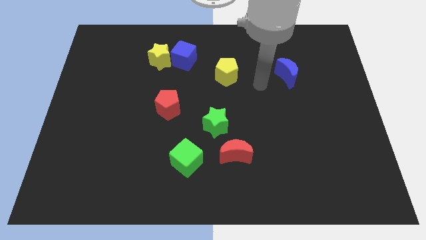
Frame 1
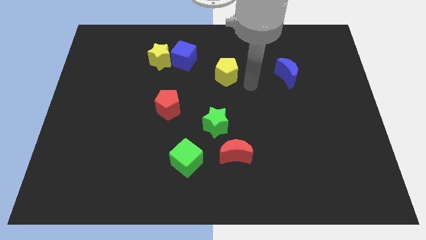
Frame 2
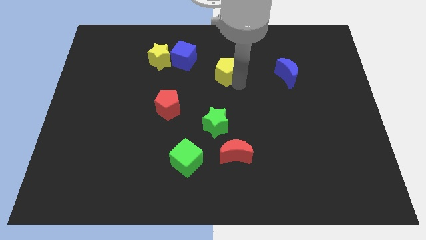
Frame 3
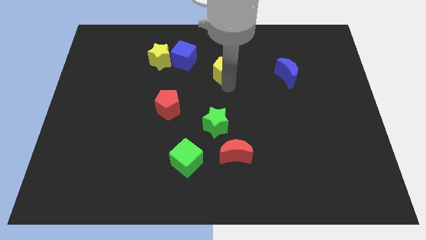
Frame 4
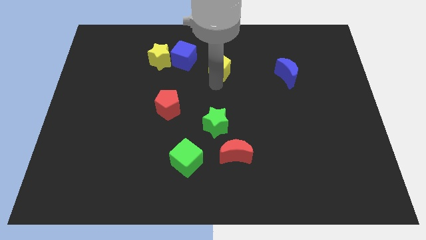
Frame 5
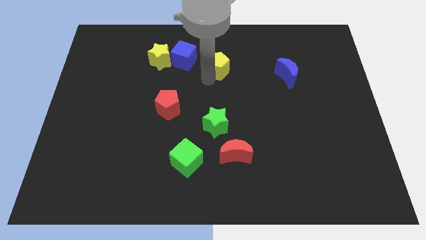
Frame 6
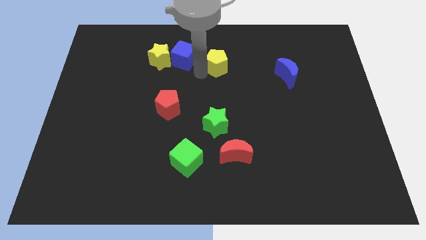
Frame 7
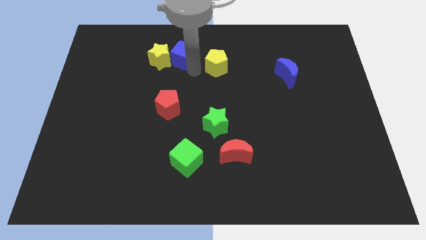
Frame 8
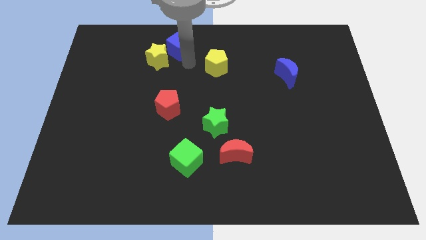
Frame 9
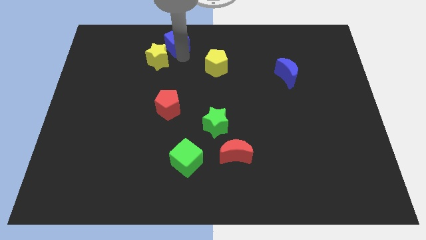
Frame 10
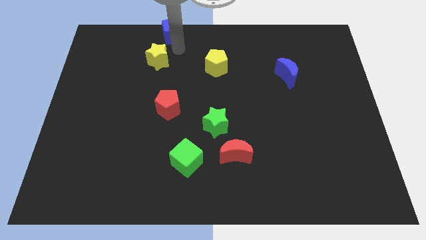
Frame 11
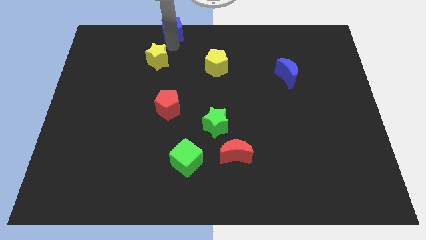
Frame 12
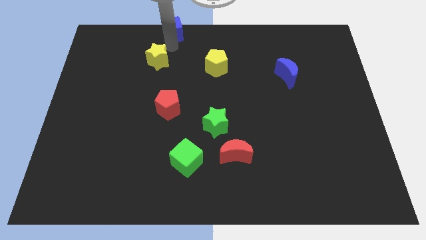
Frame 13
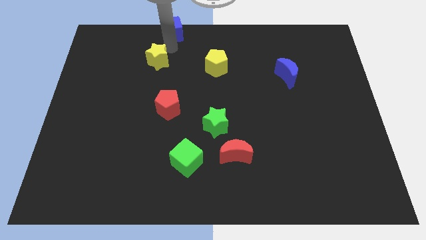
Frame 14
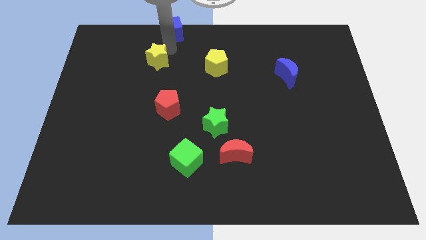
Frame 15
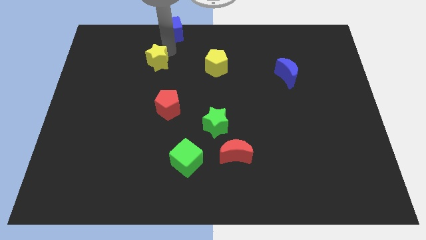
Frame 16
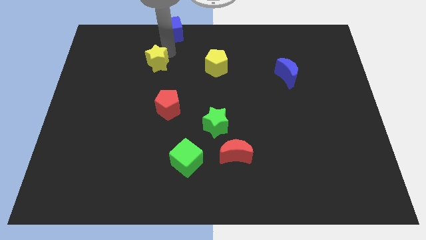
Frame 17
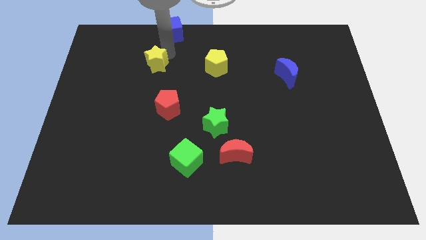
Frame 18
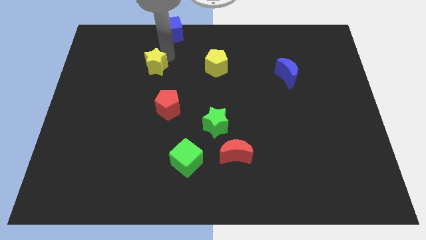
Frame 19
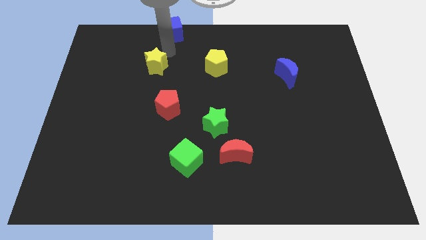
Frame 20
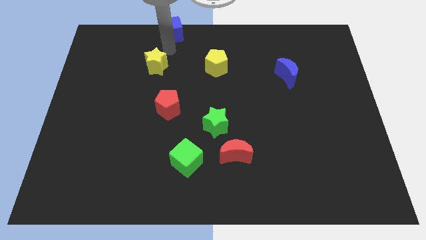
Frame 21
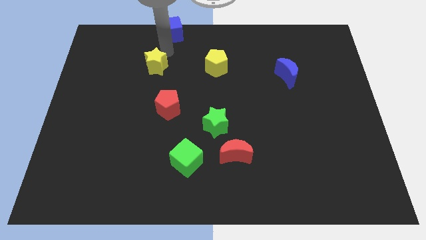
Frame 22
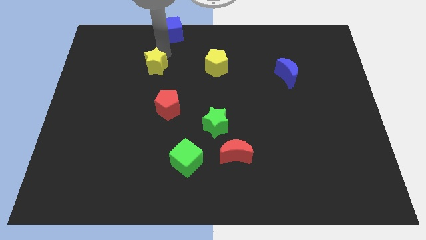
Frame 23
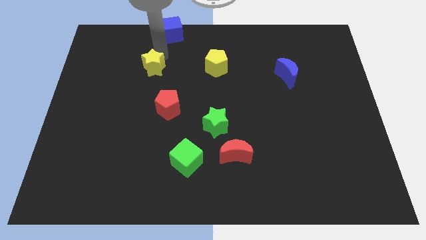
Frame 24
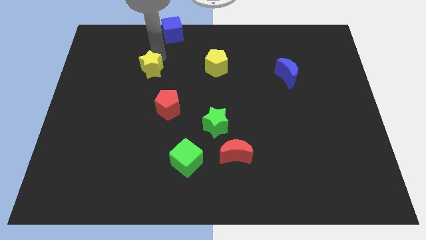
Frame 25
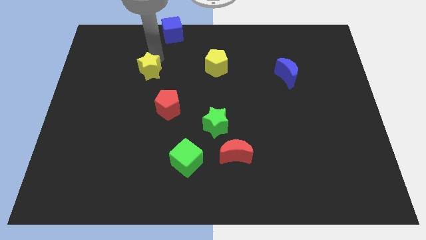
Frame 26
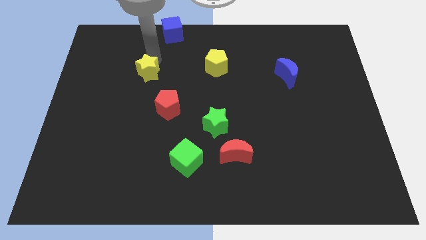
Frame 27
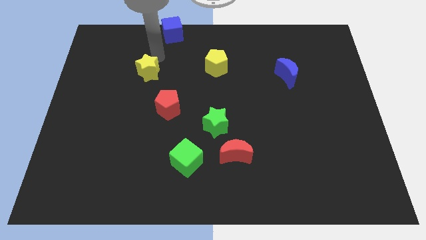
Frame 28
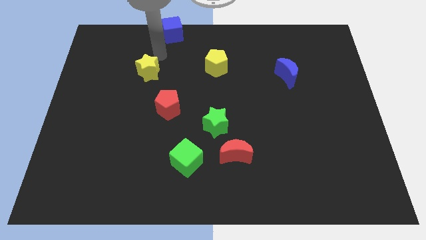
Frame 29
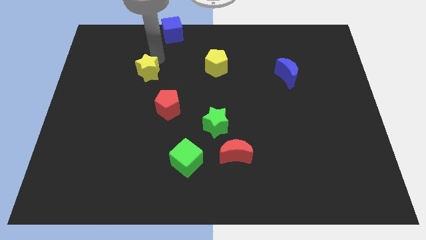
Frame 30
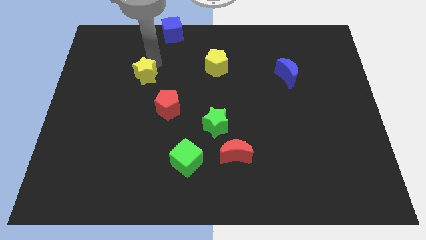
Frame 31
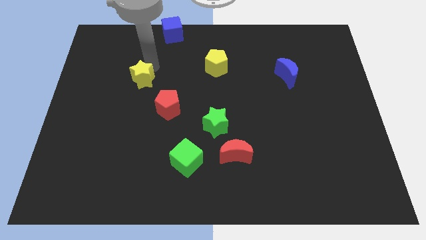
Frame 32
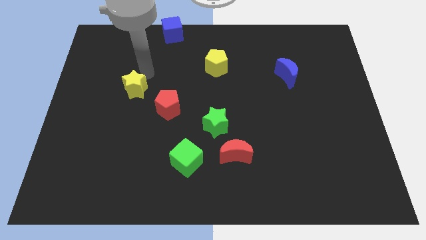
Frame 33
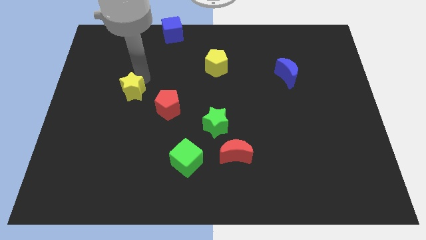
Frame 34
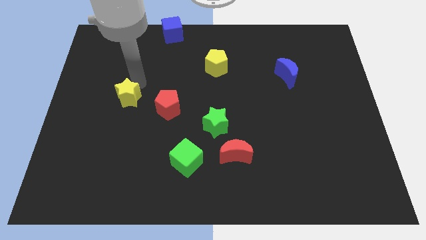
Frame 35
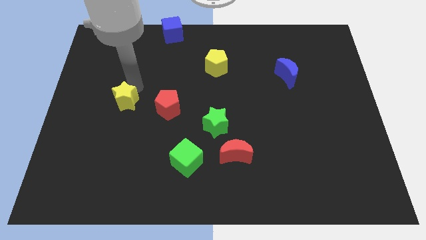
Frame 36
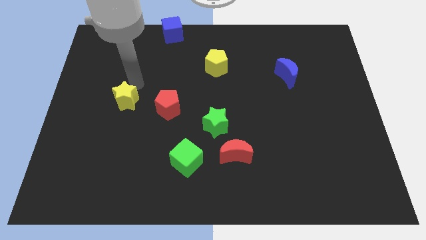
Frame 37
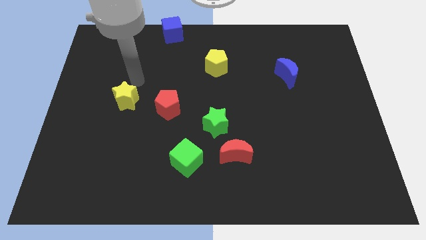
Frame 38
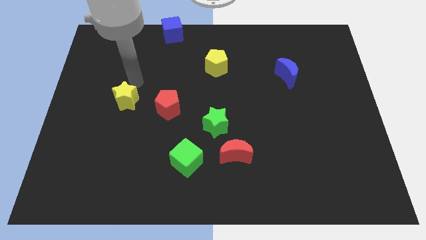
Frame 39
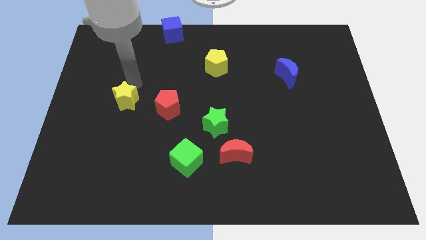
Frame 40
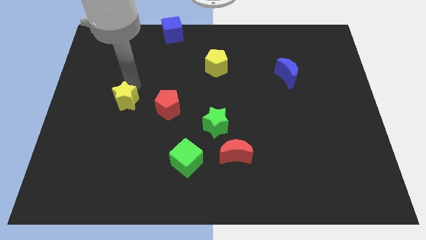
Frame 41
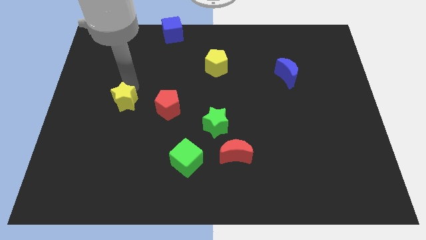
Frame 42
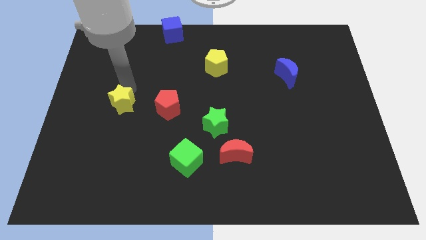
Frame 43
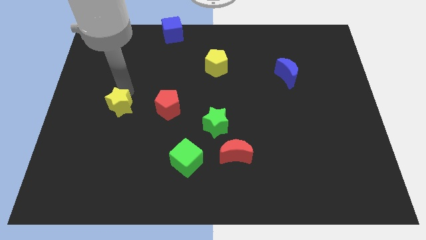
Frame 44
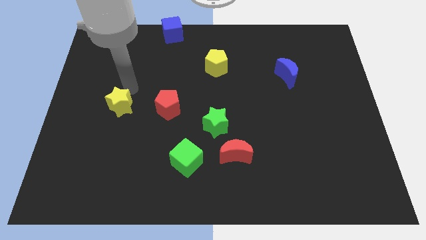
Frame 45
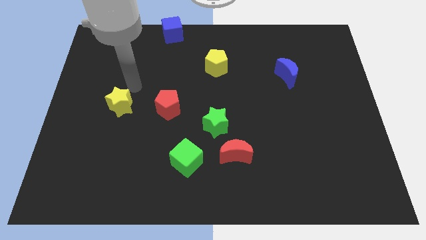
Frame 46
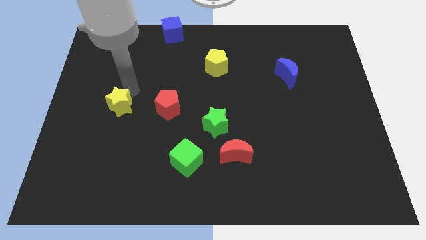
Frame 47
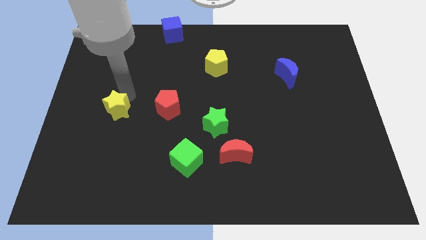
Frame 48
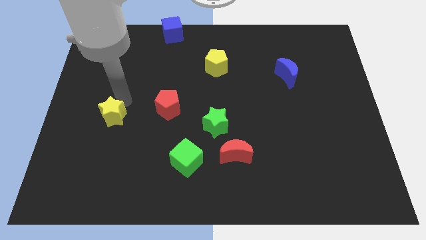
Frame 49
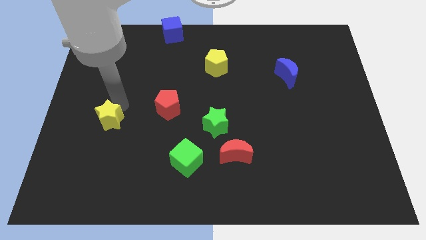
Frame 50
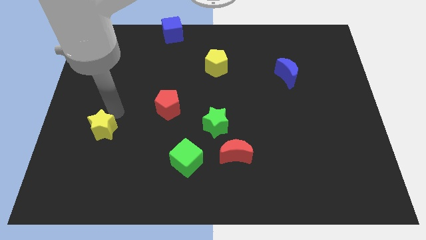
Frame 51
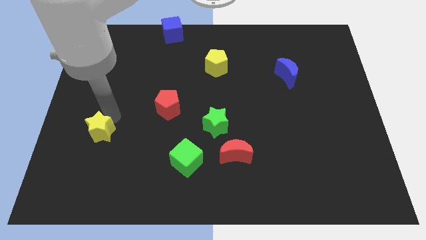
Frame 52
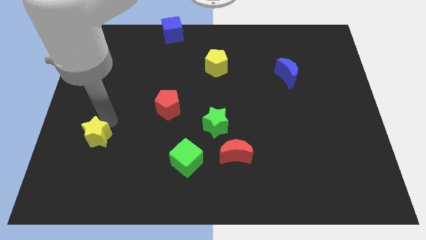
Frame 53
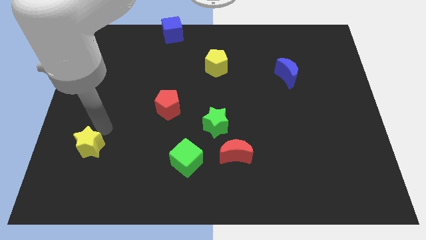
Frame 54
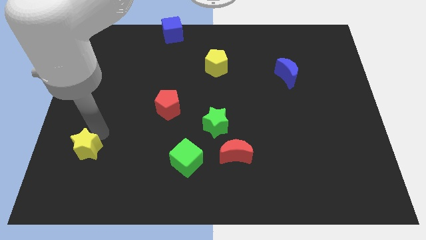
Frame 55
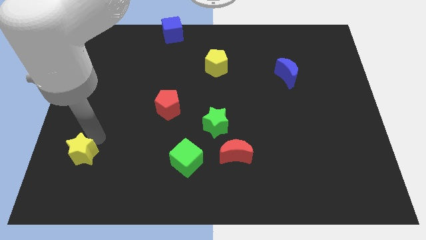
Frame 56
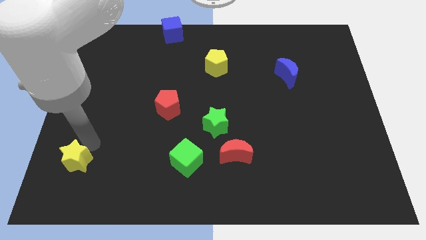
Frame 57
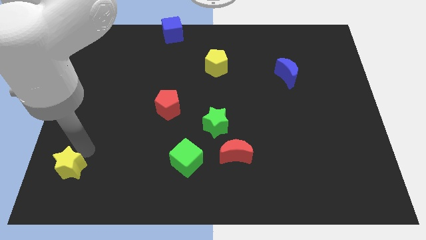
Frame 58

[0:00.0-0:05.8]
push the yellow star to the bottom left corner
